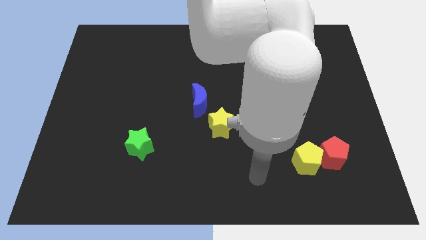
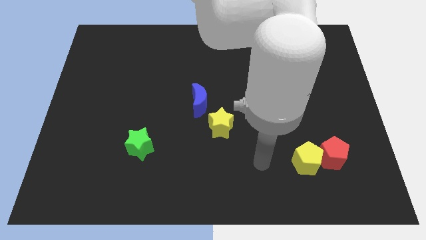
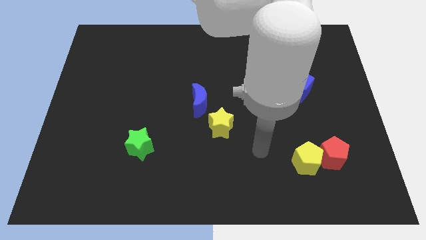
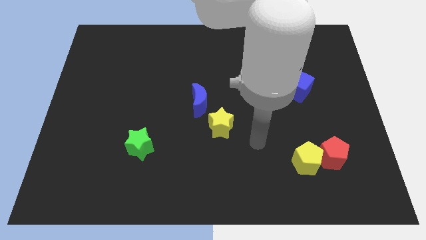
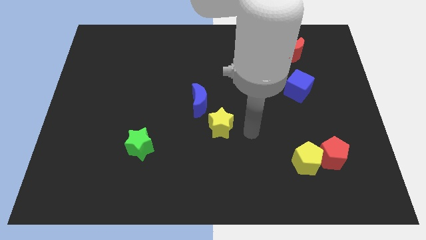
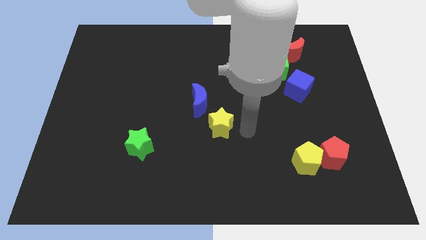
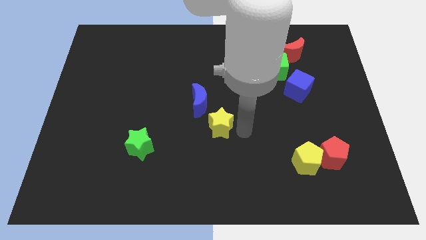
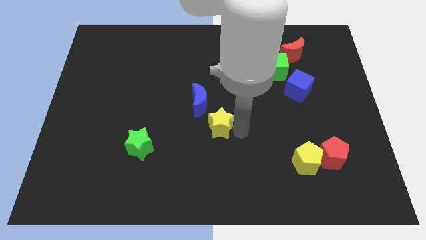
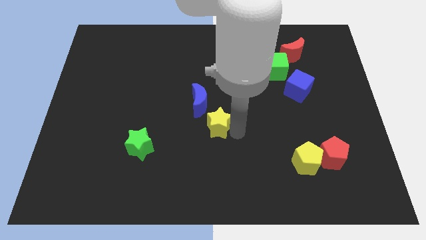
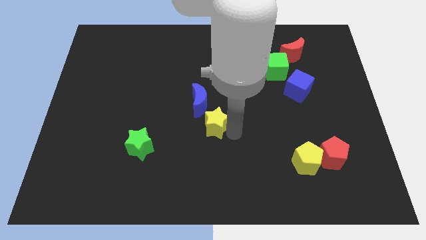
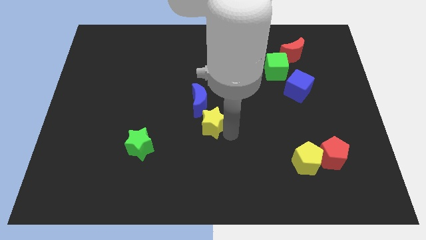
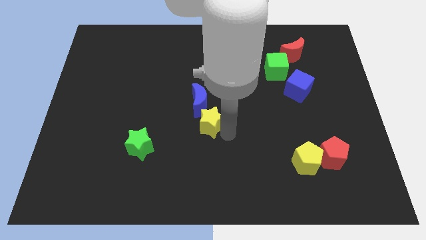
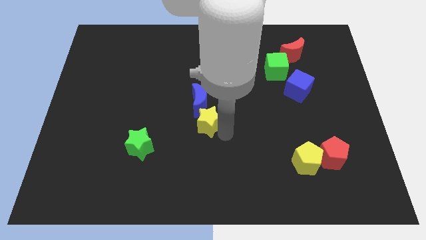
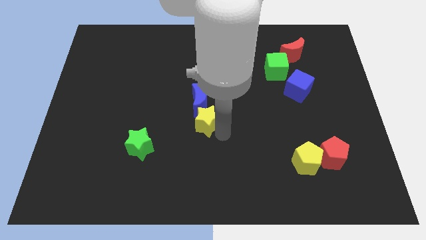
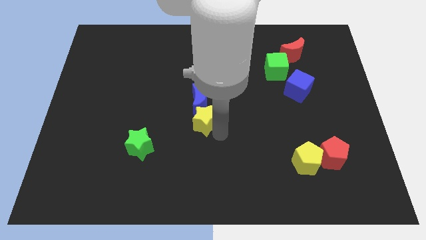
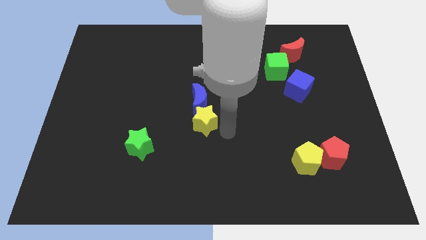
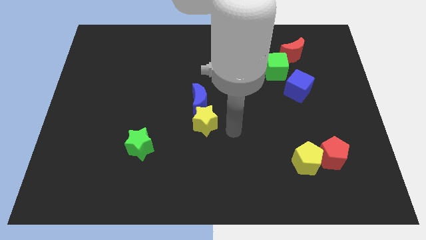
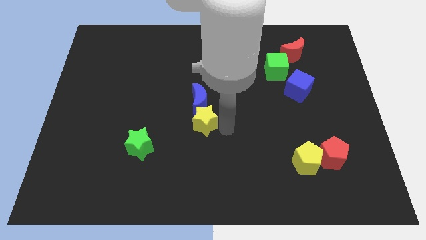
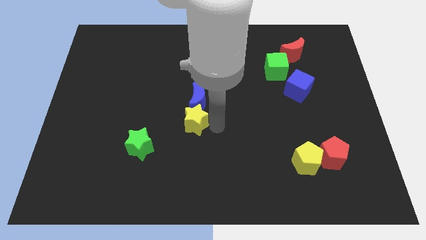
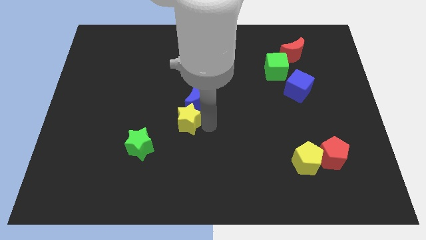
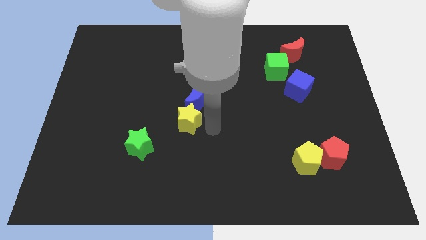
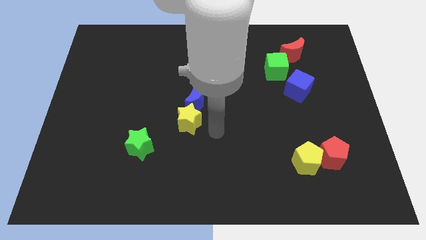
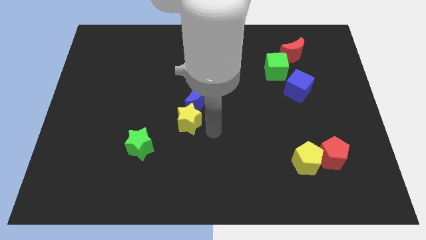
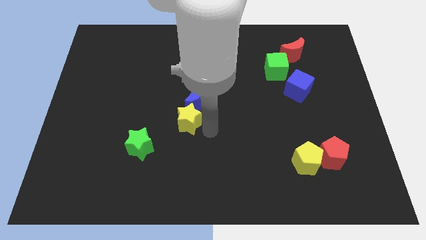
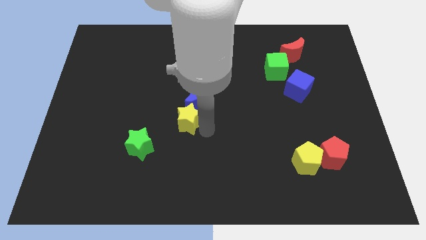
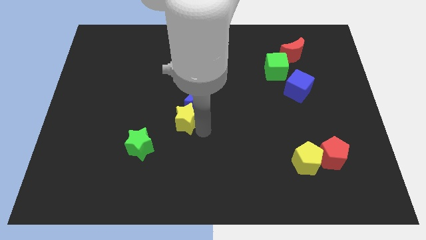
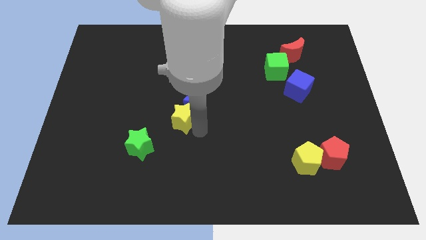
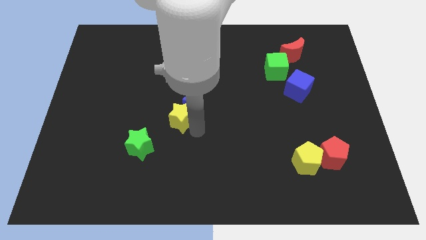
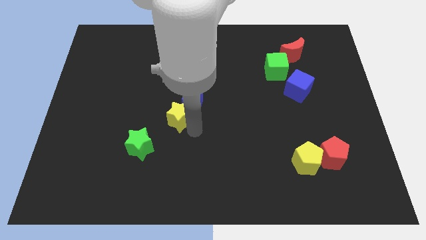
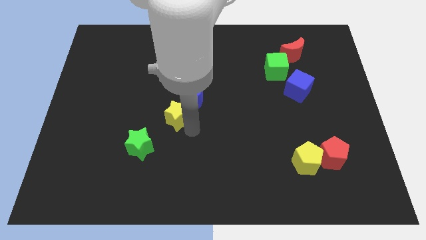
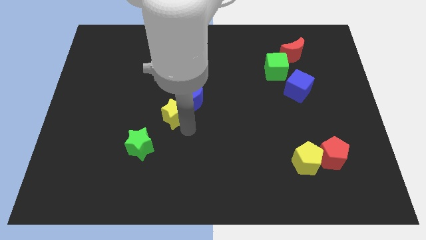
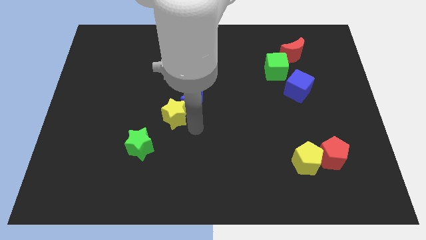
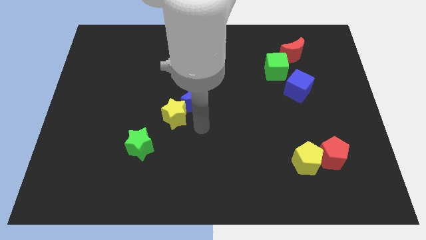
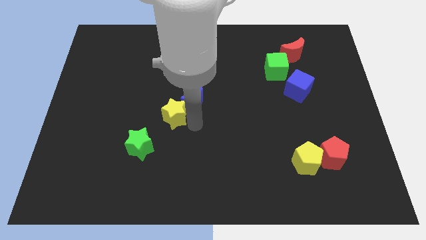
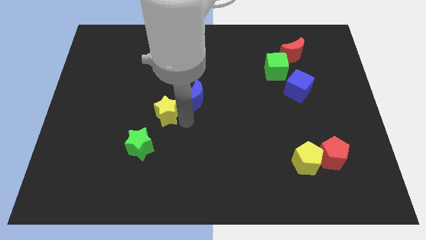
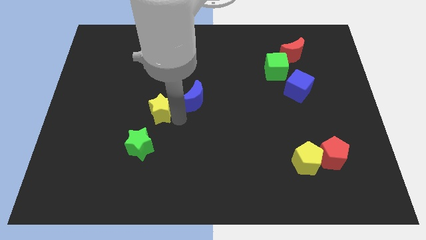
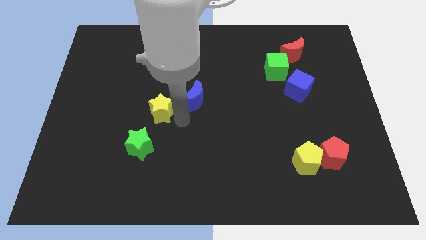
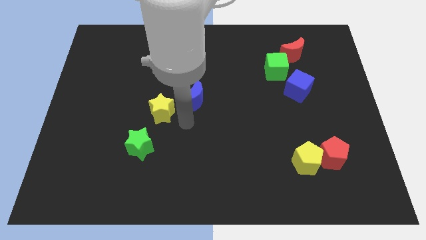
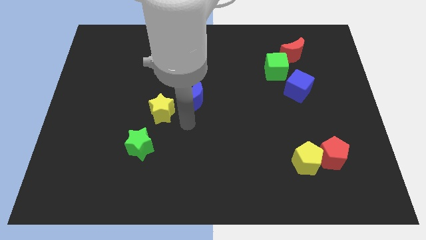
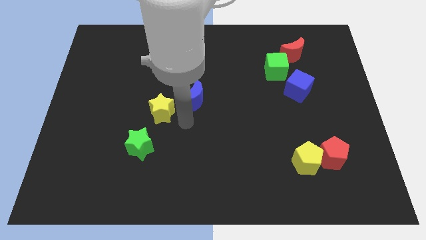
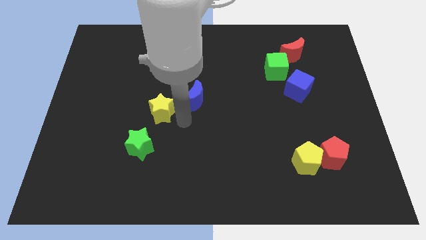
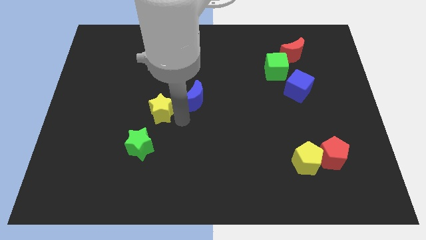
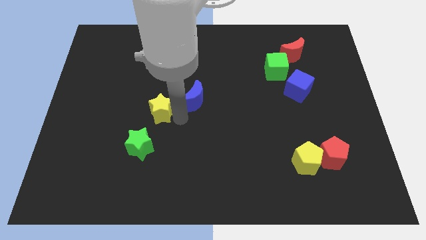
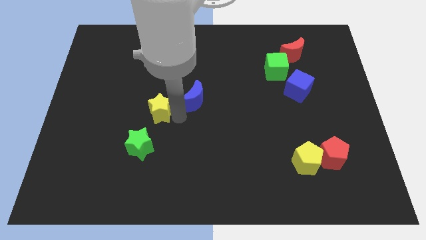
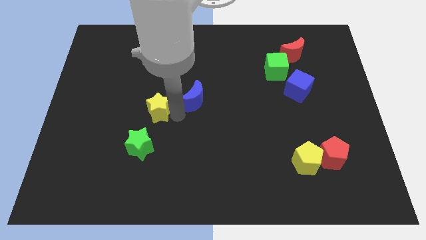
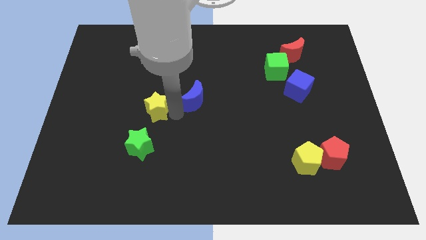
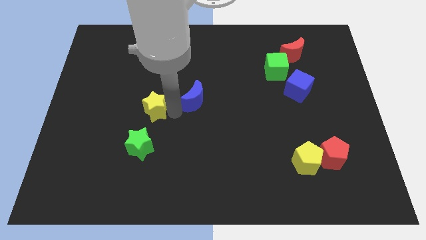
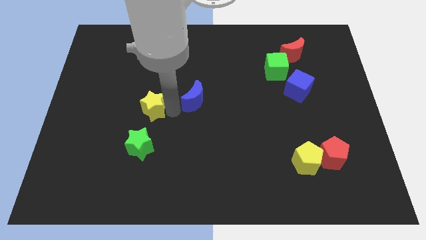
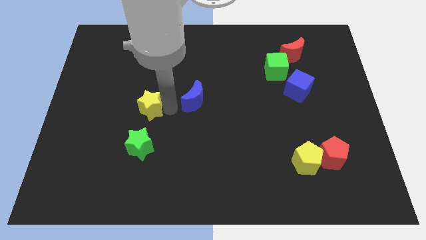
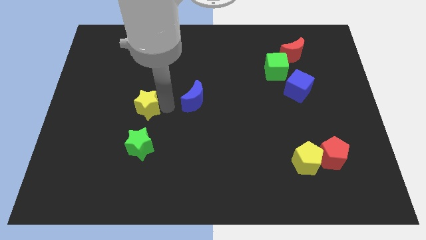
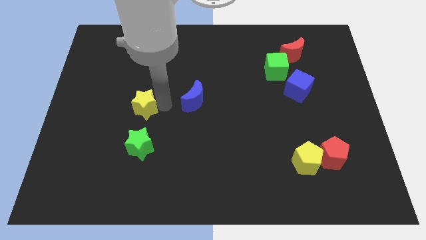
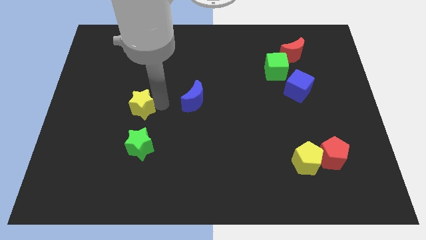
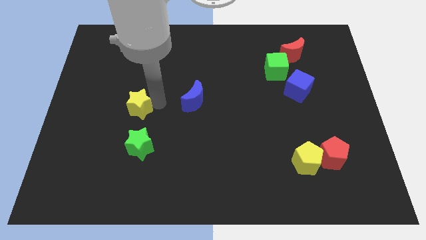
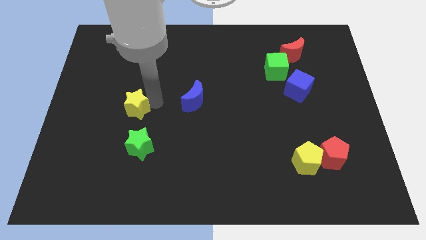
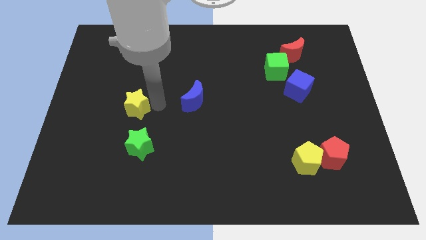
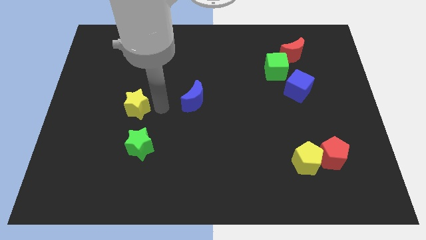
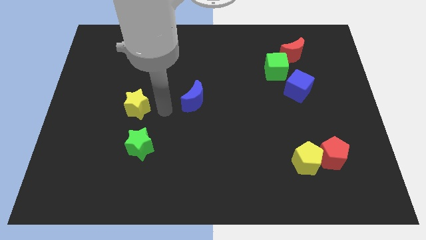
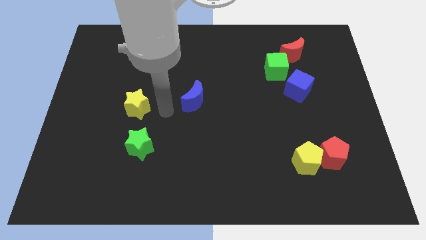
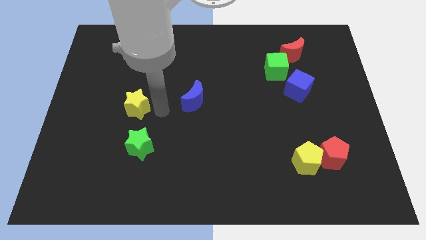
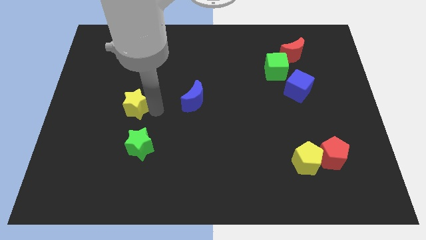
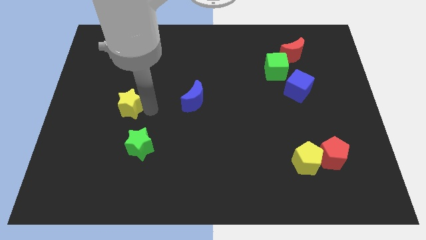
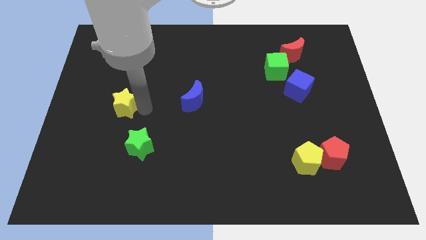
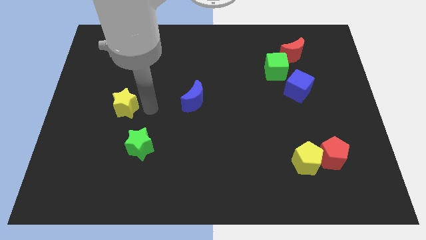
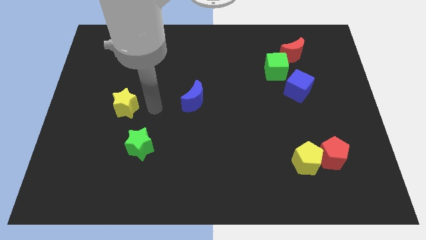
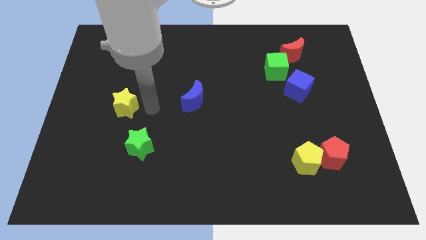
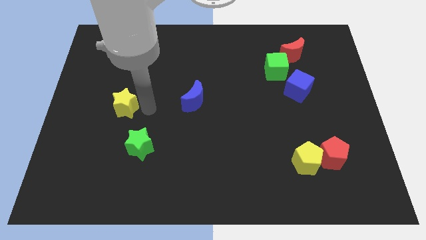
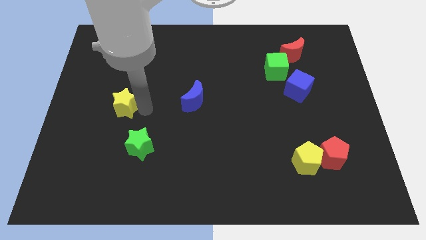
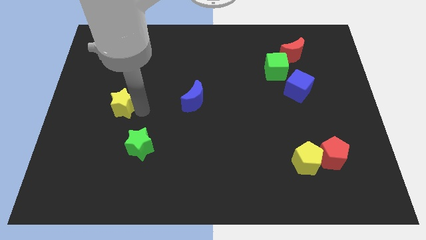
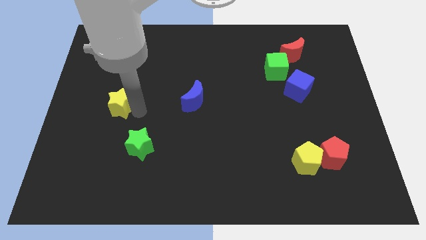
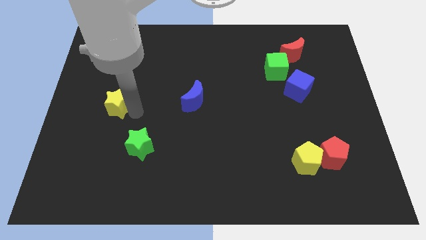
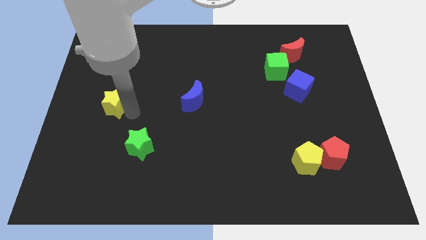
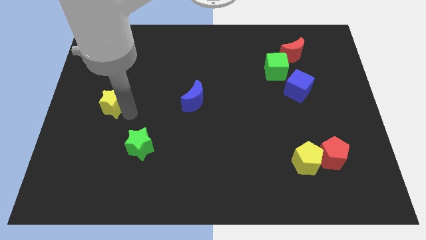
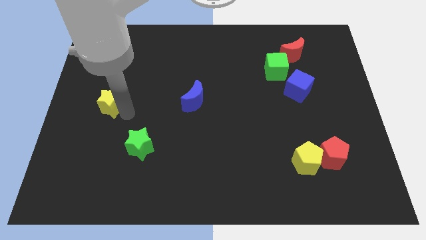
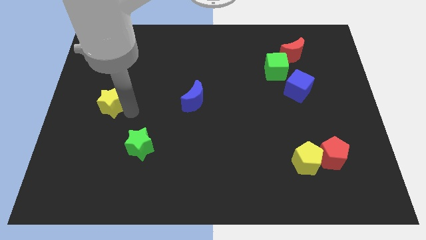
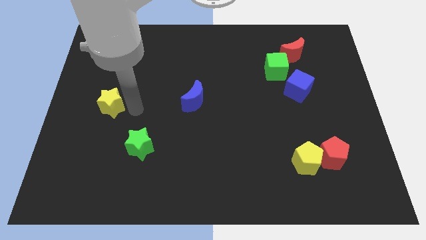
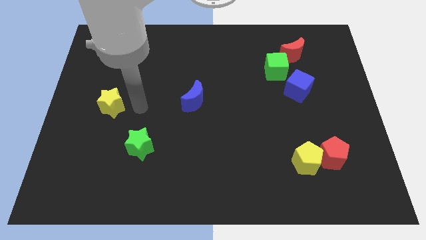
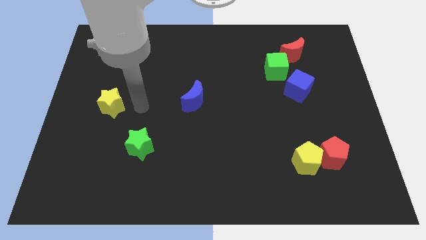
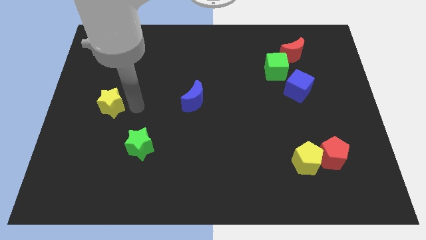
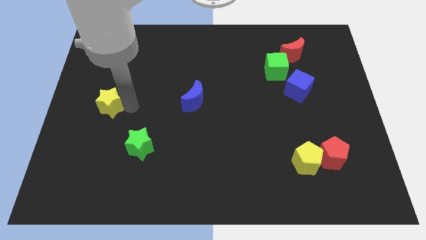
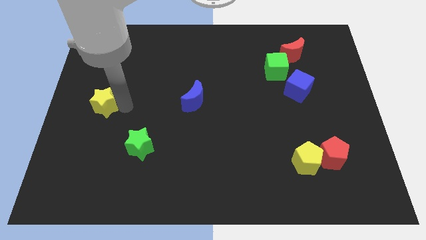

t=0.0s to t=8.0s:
slide the yellow star to the center left
